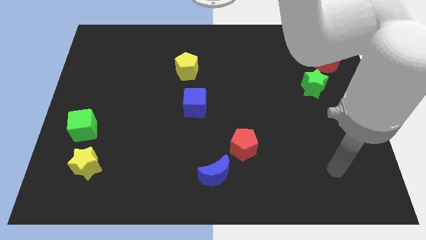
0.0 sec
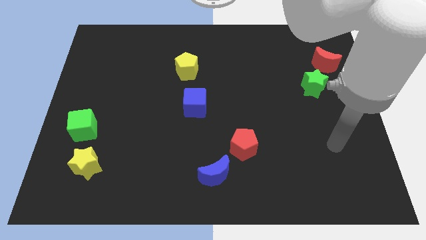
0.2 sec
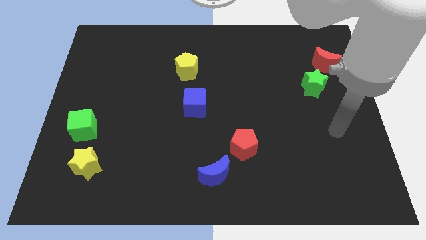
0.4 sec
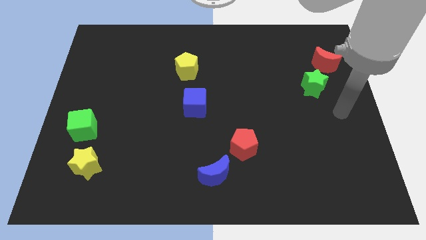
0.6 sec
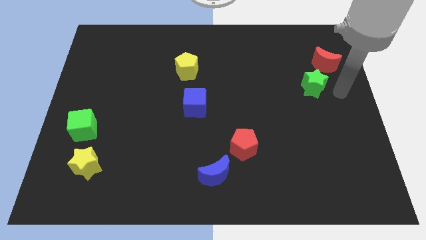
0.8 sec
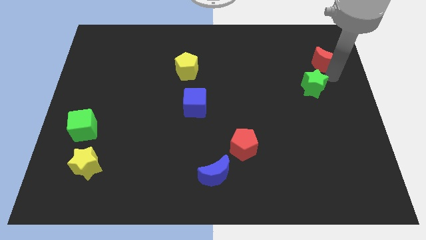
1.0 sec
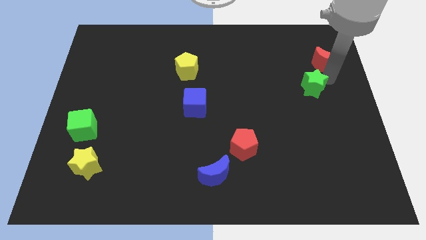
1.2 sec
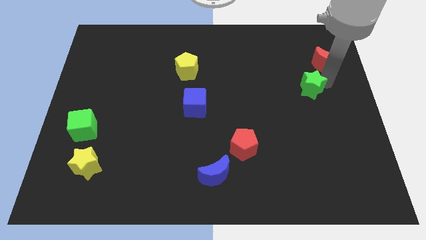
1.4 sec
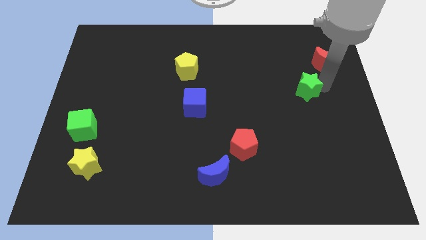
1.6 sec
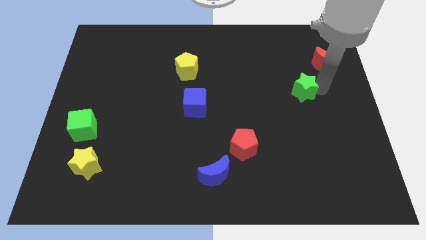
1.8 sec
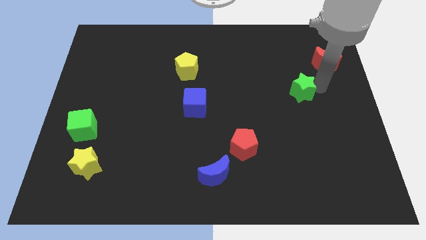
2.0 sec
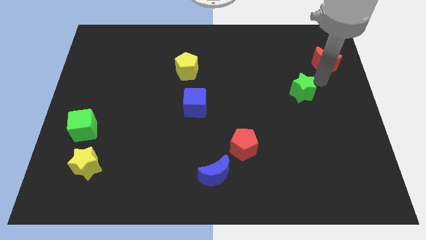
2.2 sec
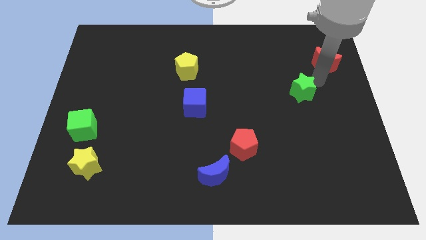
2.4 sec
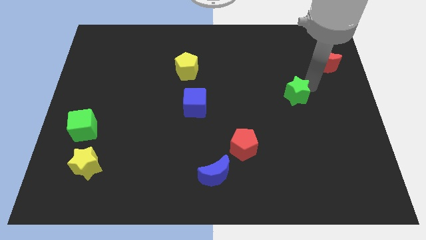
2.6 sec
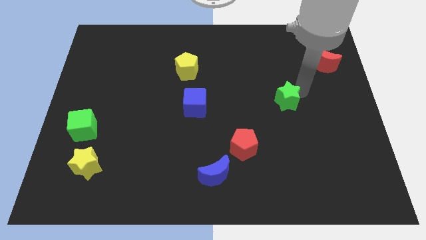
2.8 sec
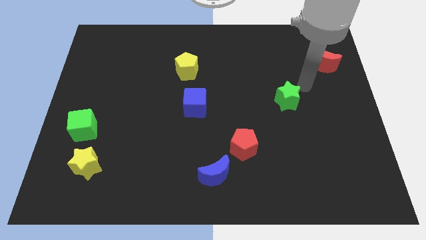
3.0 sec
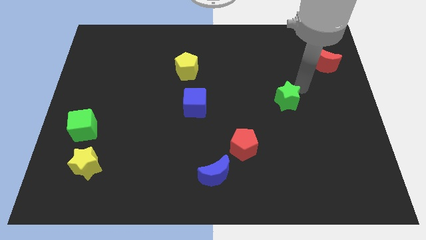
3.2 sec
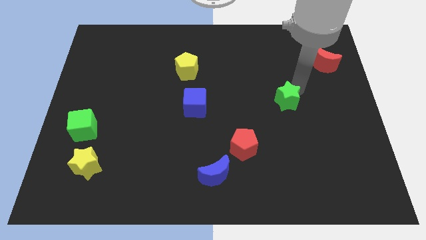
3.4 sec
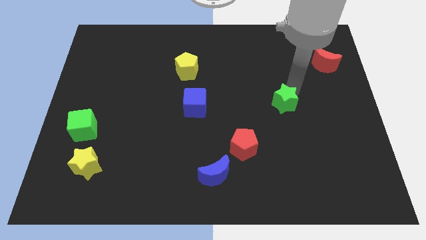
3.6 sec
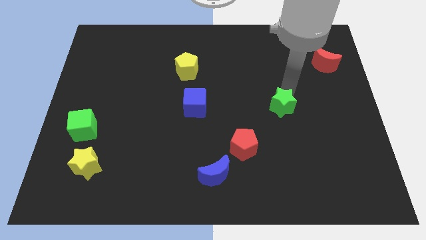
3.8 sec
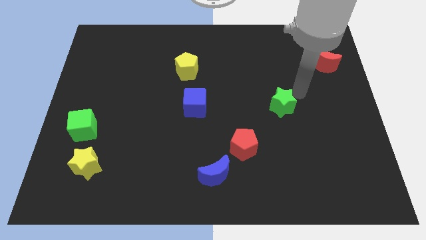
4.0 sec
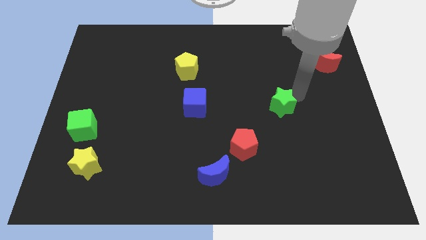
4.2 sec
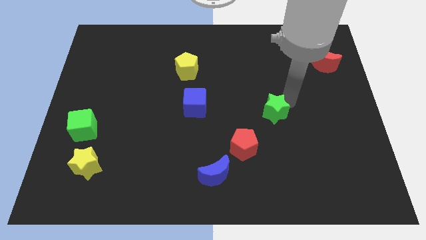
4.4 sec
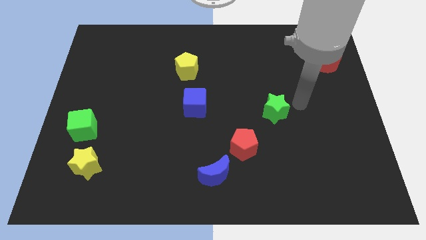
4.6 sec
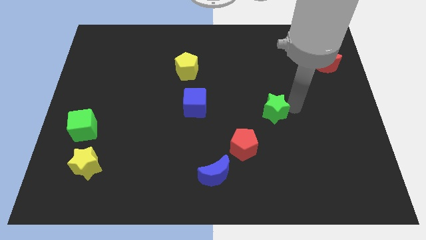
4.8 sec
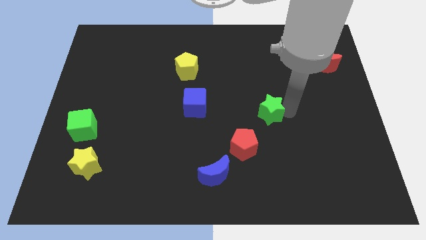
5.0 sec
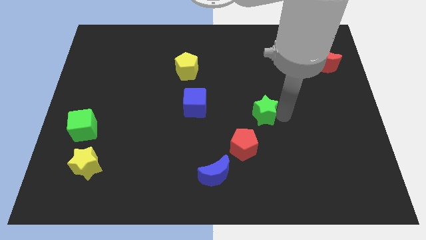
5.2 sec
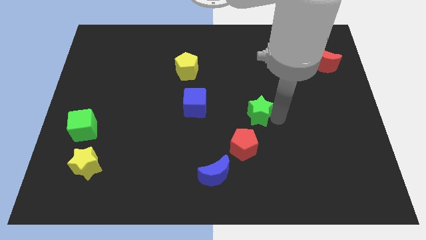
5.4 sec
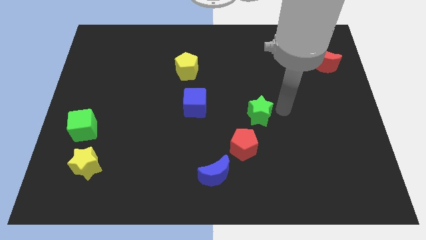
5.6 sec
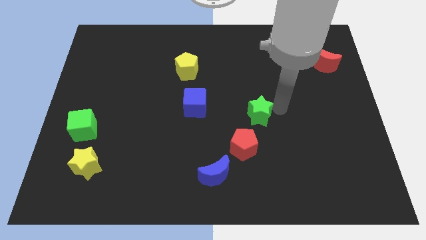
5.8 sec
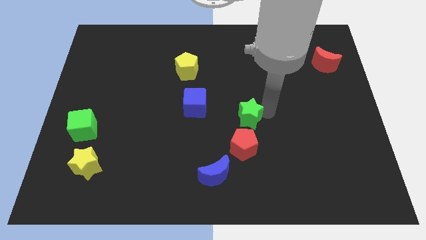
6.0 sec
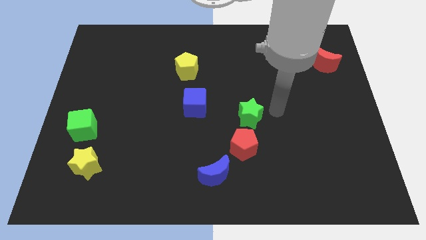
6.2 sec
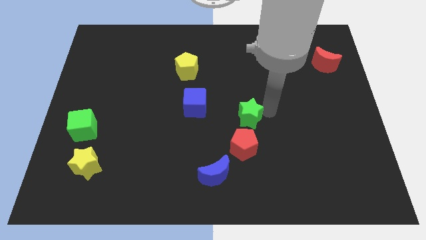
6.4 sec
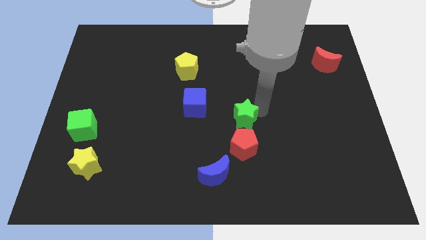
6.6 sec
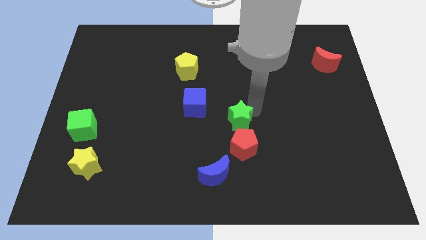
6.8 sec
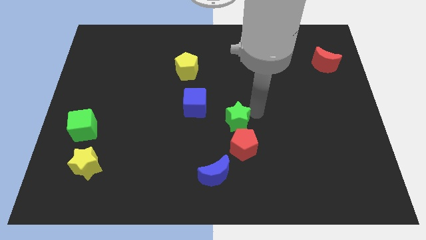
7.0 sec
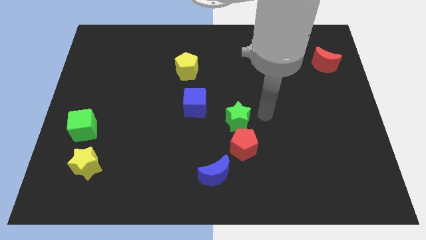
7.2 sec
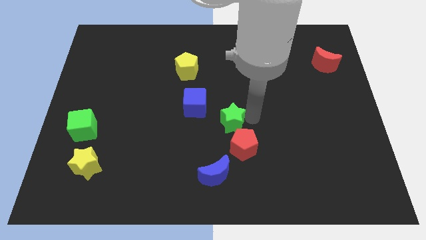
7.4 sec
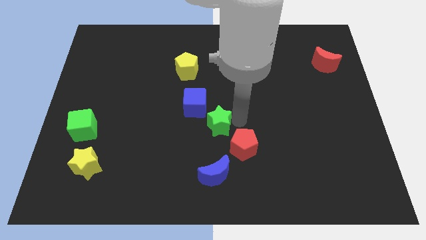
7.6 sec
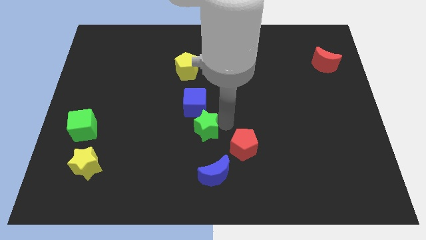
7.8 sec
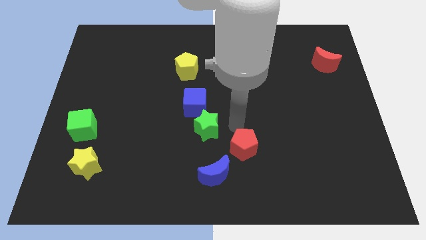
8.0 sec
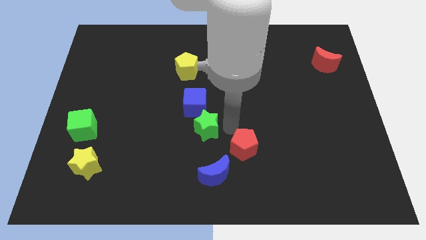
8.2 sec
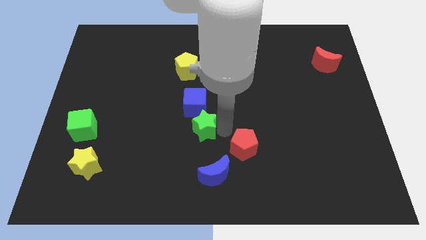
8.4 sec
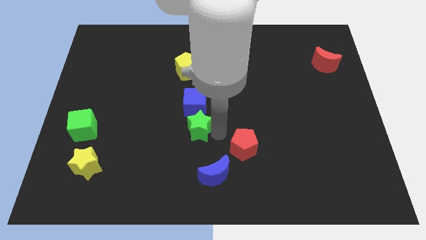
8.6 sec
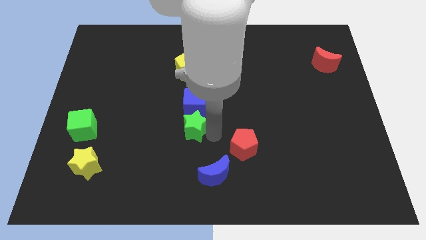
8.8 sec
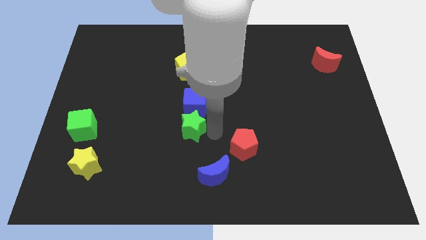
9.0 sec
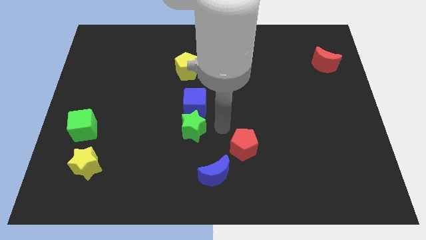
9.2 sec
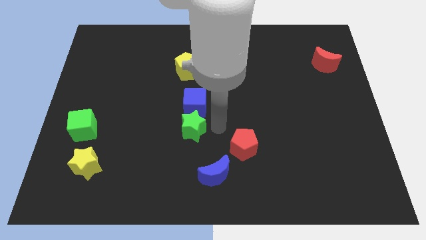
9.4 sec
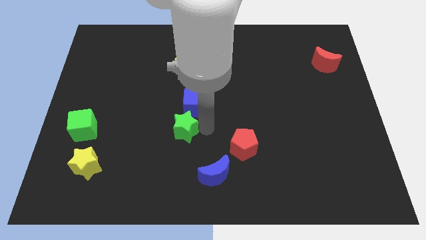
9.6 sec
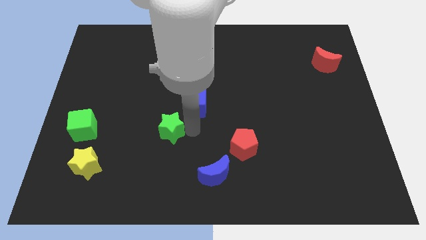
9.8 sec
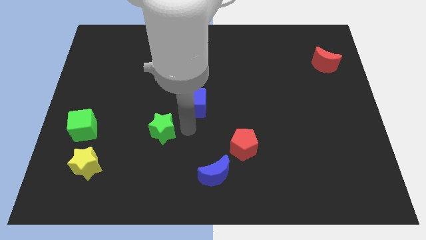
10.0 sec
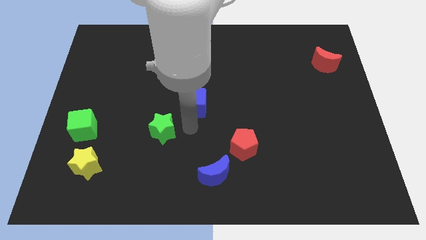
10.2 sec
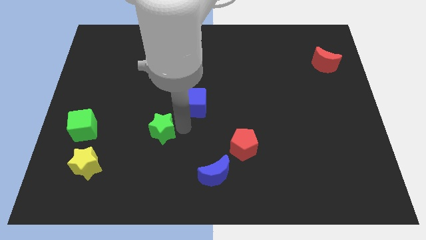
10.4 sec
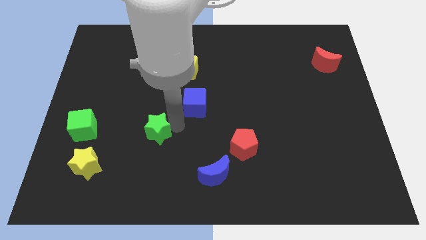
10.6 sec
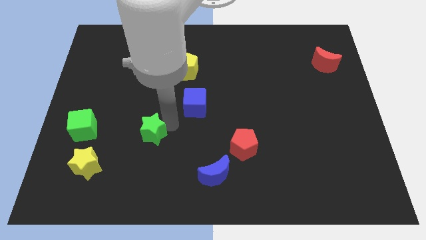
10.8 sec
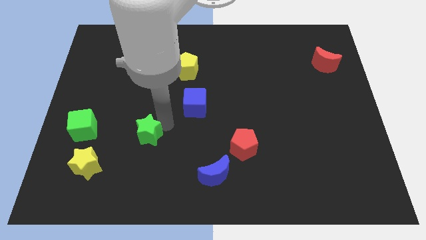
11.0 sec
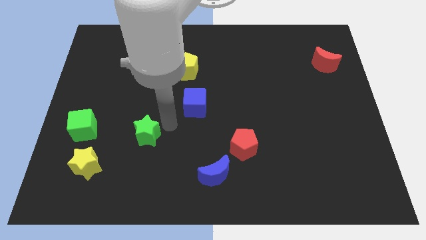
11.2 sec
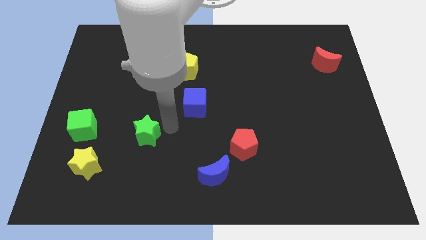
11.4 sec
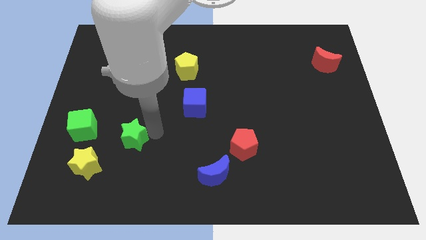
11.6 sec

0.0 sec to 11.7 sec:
slide the green star to the top right side of the yellow star

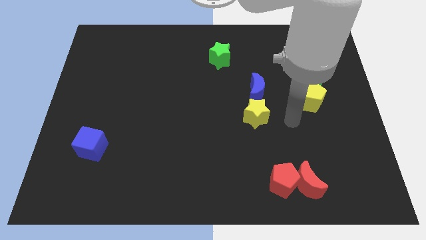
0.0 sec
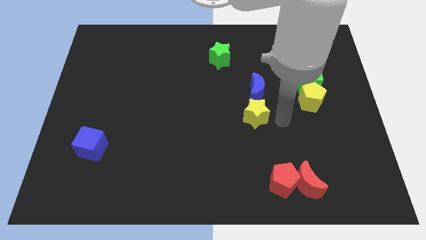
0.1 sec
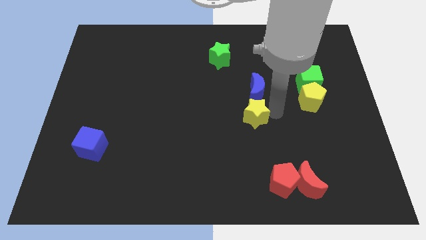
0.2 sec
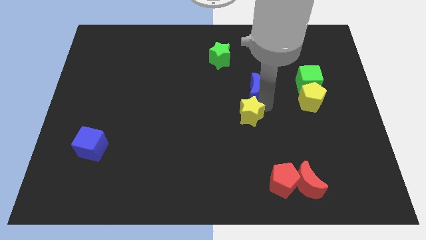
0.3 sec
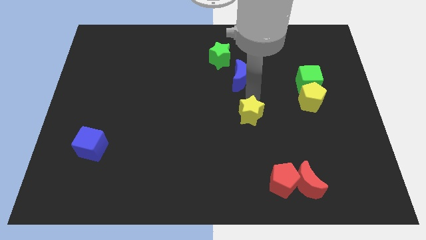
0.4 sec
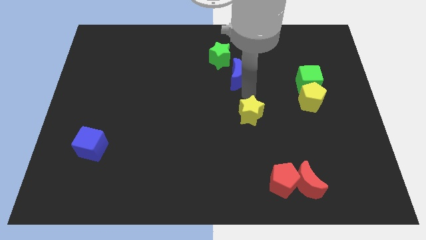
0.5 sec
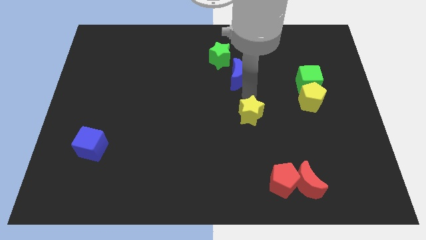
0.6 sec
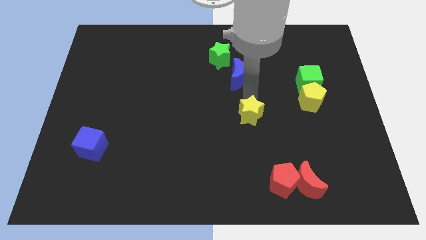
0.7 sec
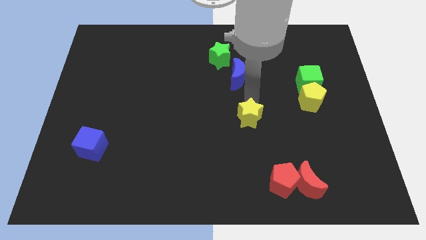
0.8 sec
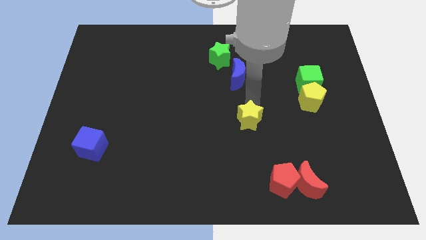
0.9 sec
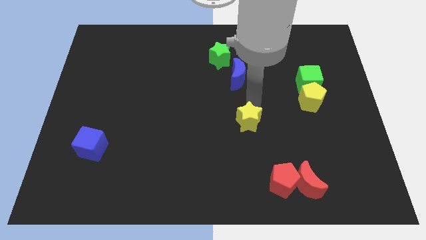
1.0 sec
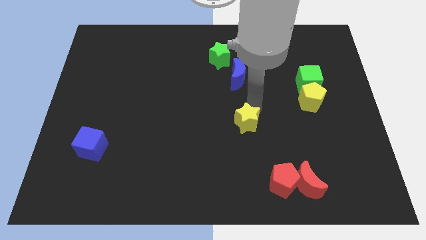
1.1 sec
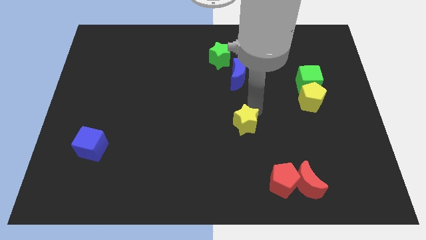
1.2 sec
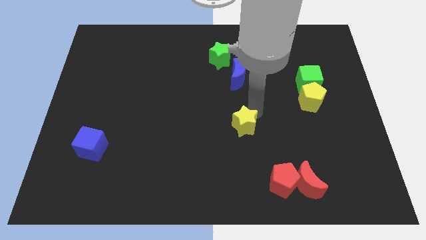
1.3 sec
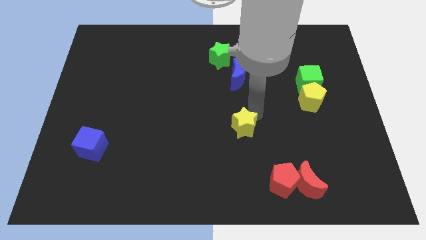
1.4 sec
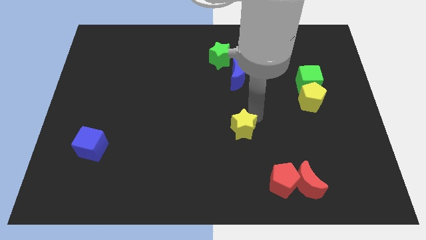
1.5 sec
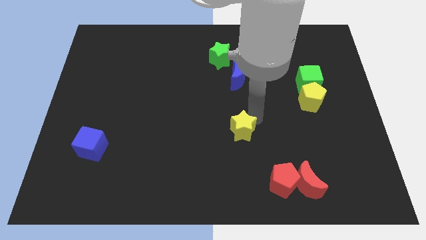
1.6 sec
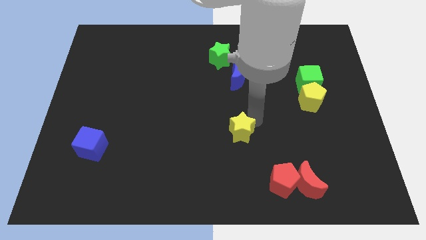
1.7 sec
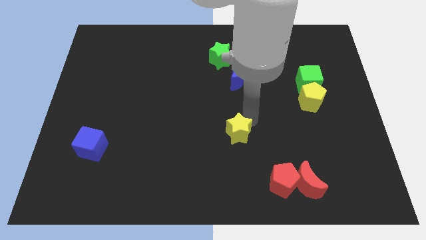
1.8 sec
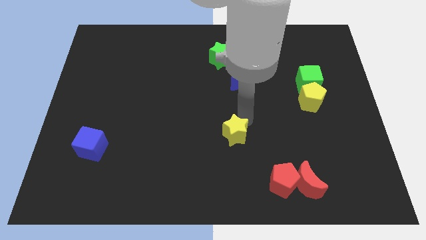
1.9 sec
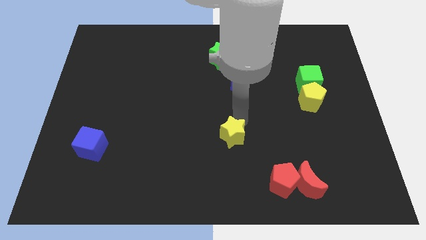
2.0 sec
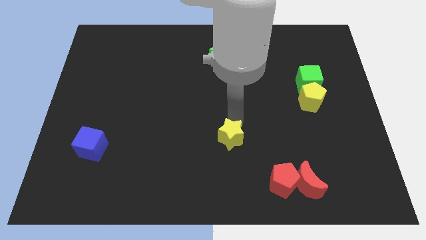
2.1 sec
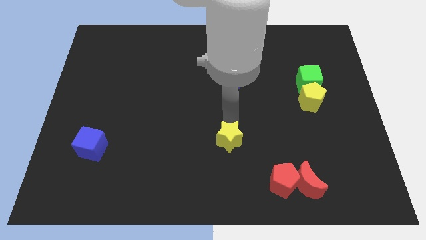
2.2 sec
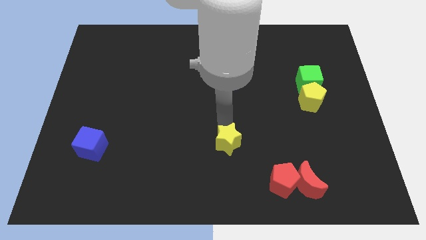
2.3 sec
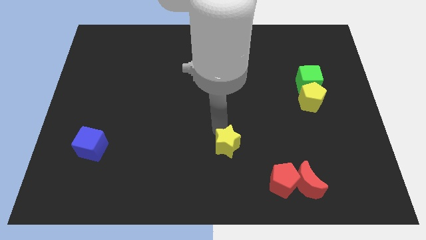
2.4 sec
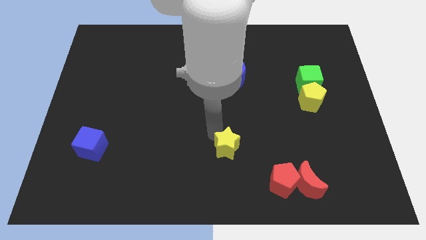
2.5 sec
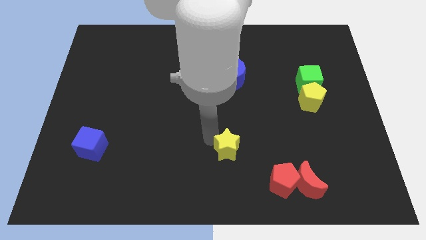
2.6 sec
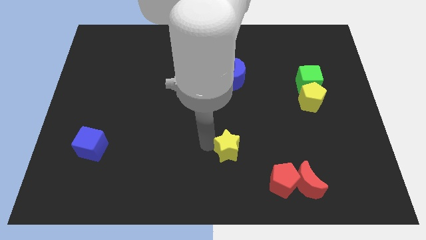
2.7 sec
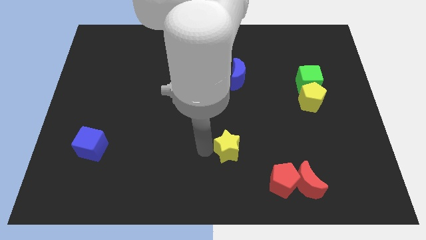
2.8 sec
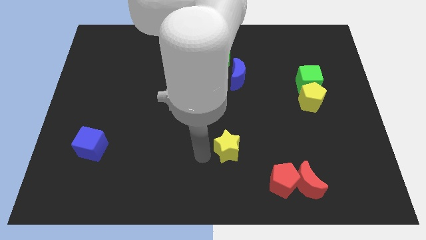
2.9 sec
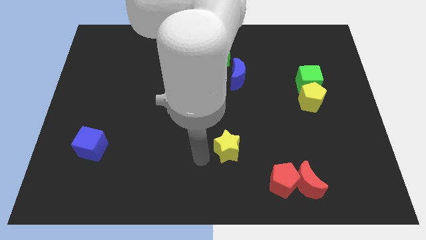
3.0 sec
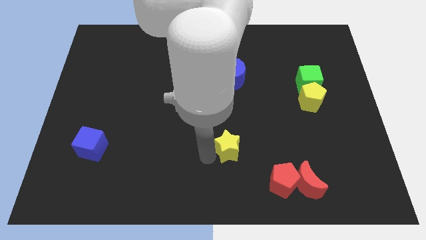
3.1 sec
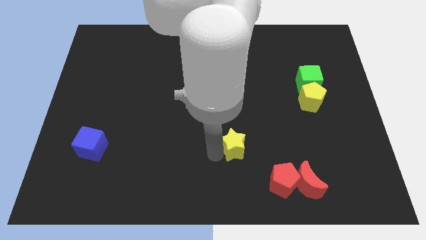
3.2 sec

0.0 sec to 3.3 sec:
move the yellow star to the top left side of the red pentagon
